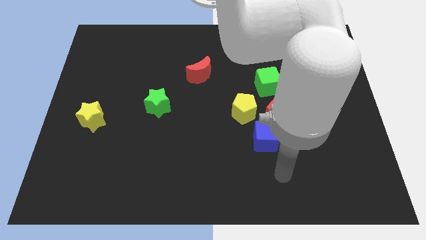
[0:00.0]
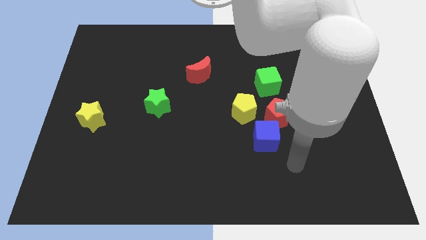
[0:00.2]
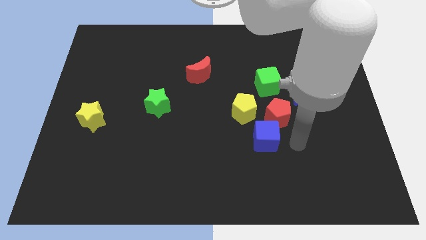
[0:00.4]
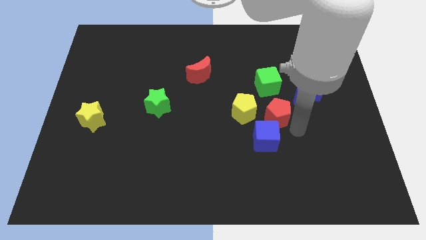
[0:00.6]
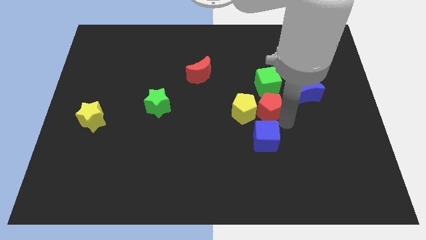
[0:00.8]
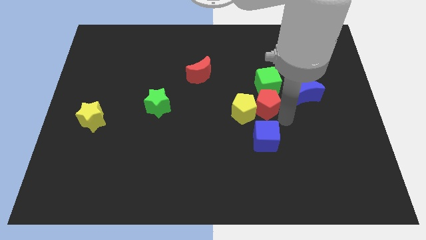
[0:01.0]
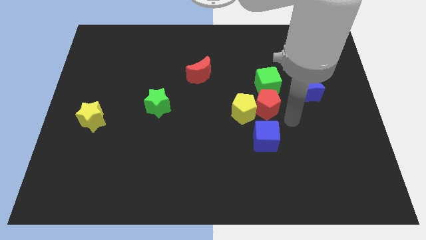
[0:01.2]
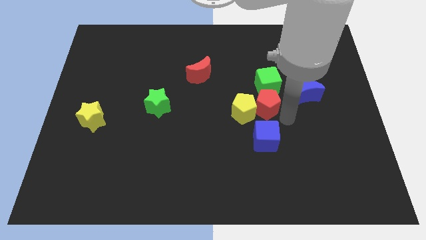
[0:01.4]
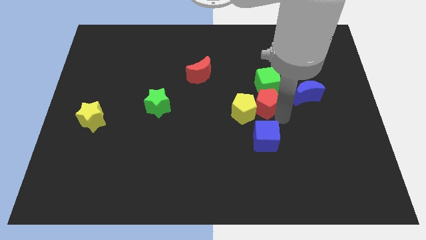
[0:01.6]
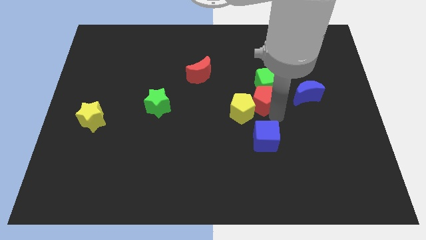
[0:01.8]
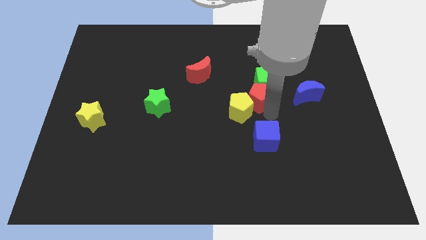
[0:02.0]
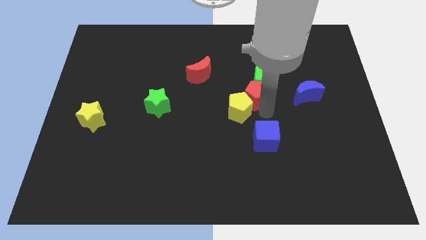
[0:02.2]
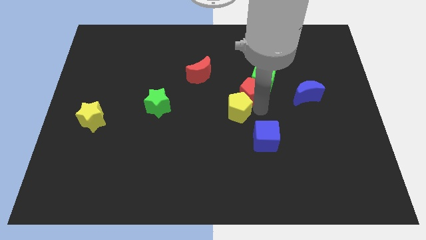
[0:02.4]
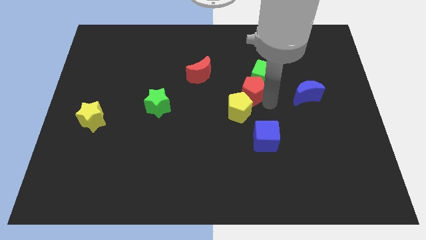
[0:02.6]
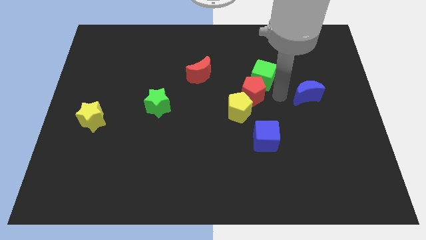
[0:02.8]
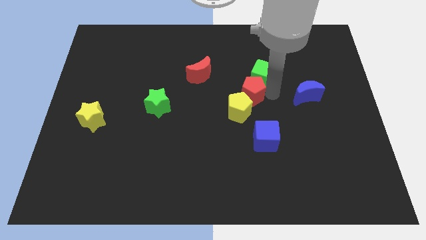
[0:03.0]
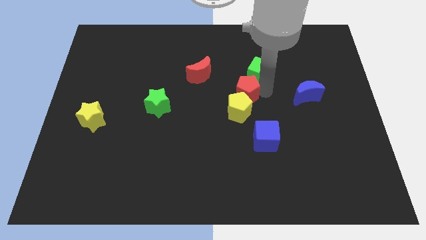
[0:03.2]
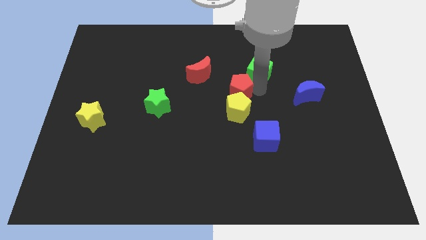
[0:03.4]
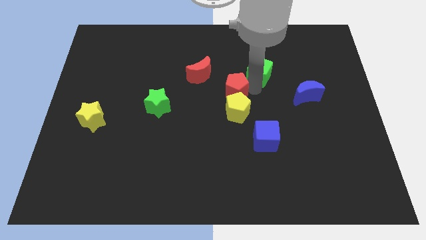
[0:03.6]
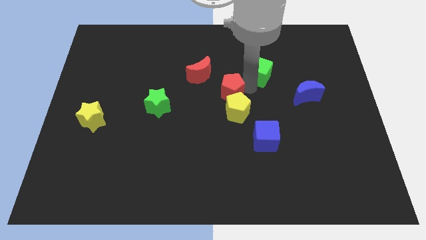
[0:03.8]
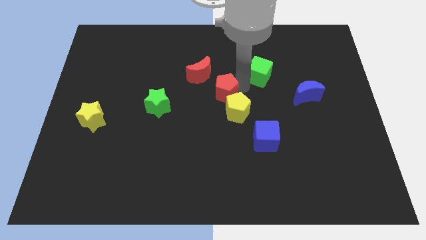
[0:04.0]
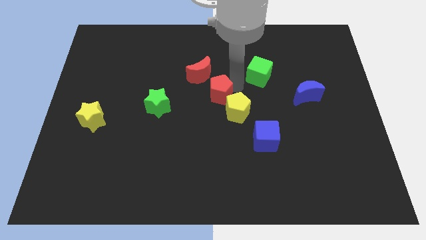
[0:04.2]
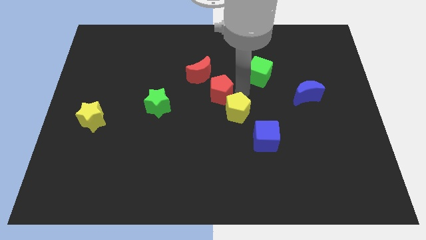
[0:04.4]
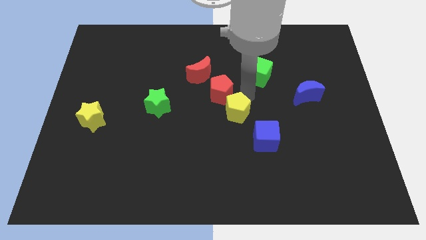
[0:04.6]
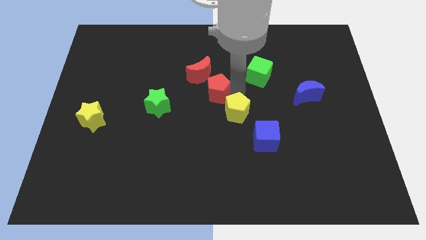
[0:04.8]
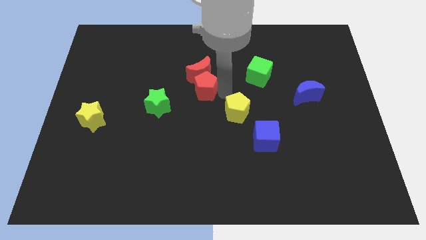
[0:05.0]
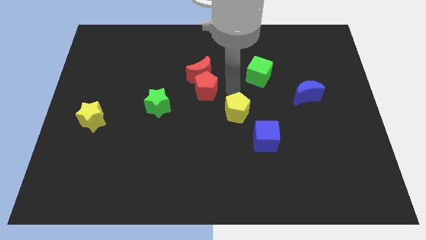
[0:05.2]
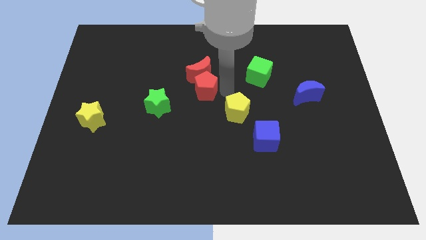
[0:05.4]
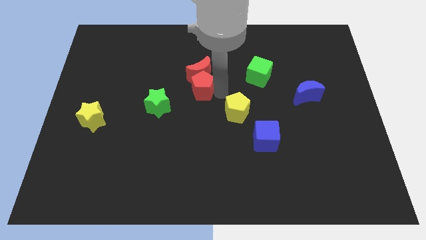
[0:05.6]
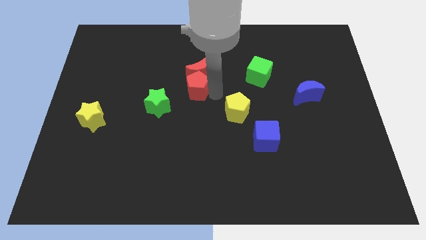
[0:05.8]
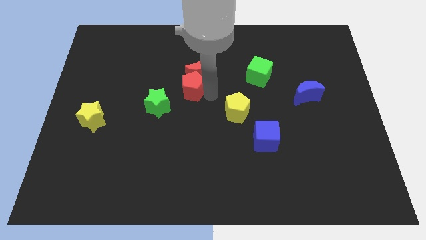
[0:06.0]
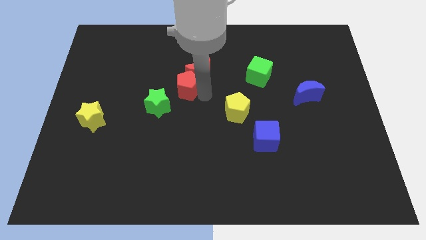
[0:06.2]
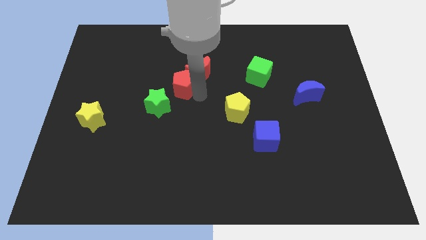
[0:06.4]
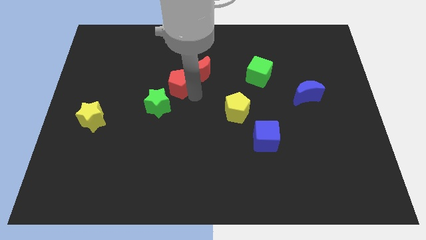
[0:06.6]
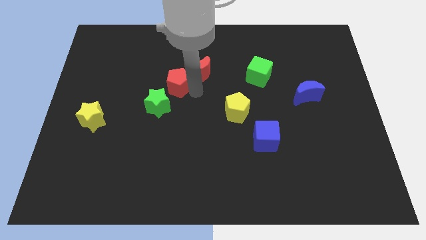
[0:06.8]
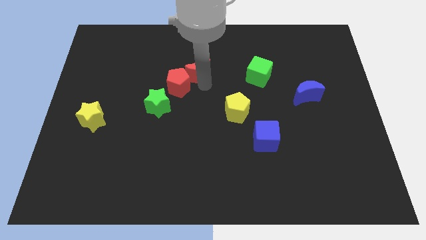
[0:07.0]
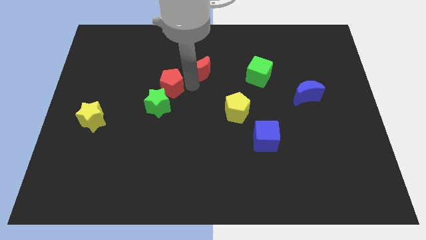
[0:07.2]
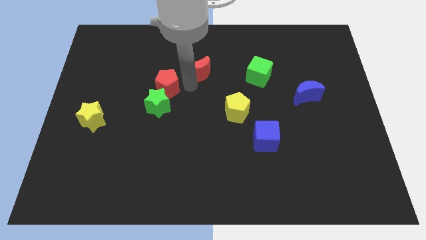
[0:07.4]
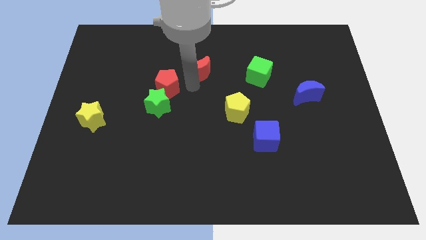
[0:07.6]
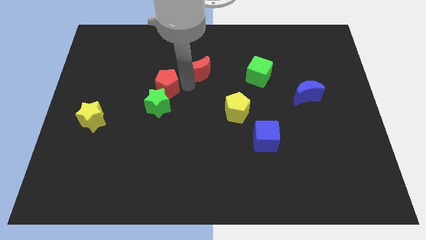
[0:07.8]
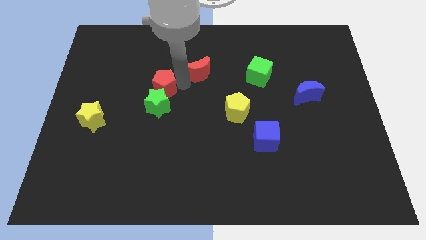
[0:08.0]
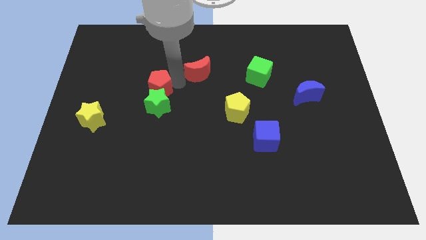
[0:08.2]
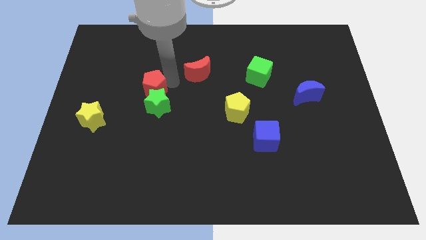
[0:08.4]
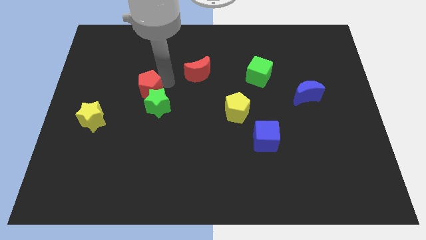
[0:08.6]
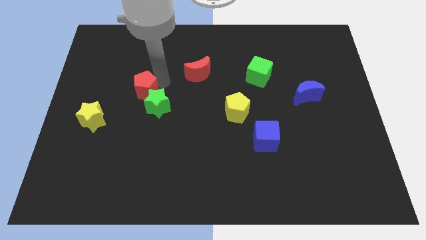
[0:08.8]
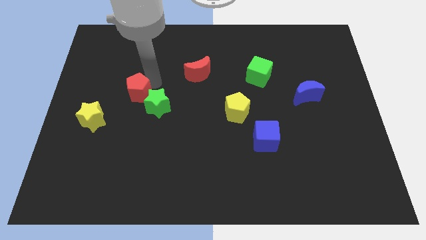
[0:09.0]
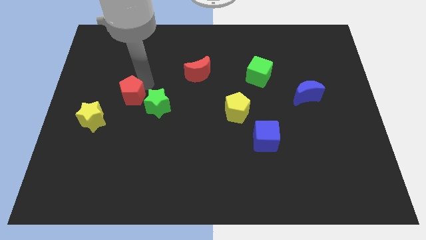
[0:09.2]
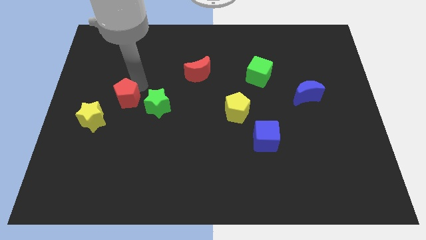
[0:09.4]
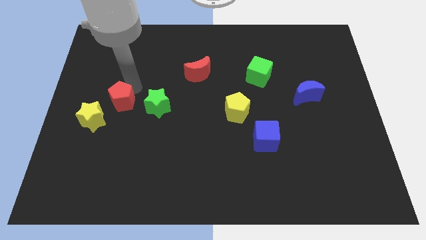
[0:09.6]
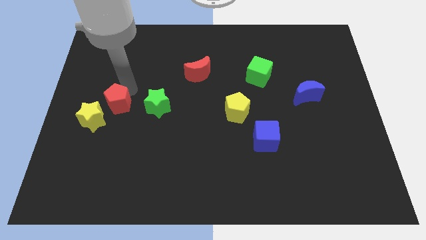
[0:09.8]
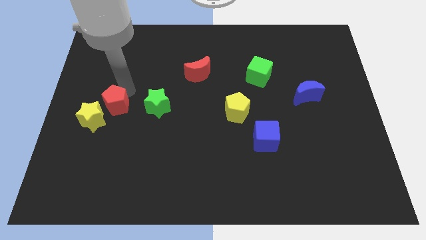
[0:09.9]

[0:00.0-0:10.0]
move the red pentagon close to the yellow star

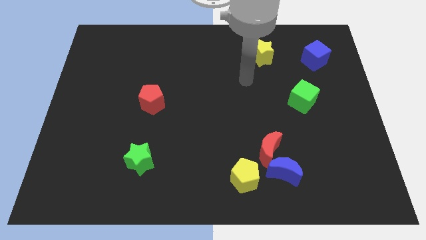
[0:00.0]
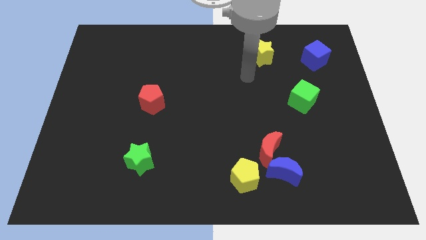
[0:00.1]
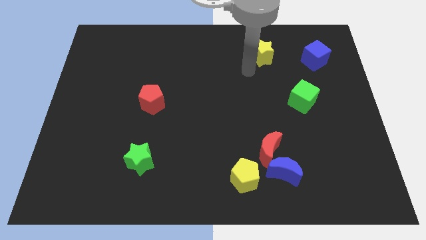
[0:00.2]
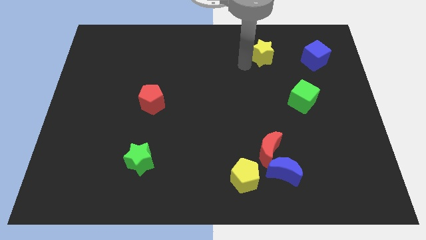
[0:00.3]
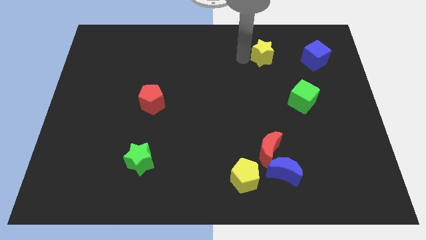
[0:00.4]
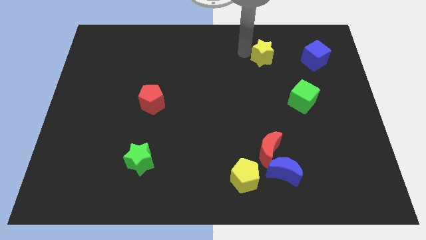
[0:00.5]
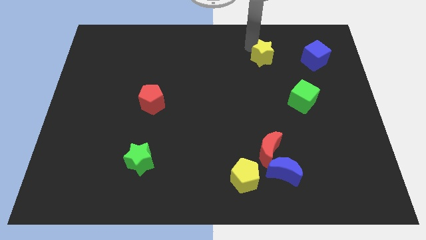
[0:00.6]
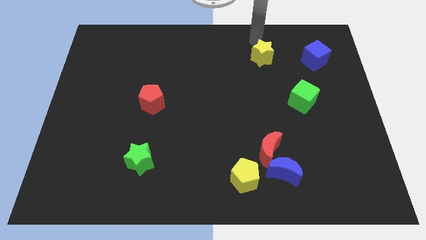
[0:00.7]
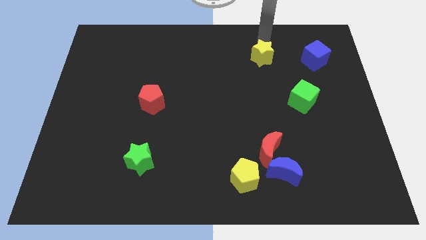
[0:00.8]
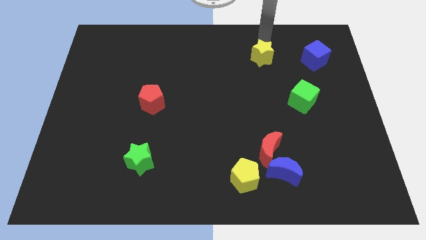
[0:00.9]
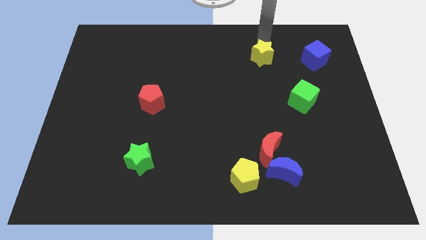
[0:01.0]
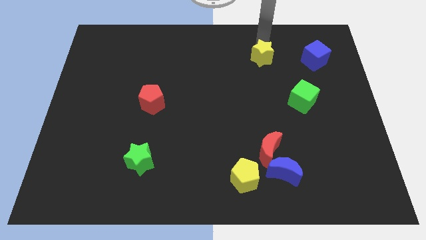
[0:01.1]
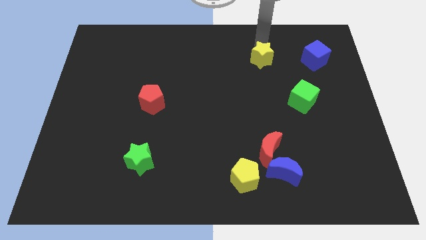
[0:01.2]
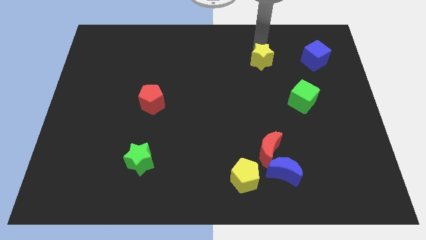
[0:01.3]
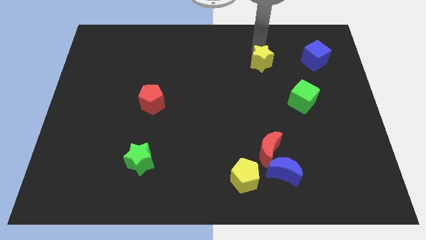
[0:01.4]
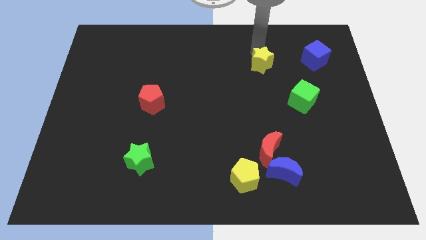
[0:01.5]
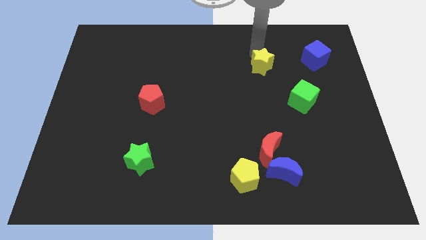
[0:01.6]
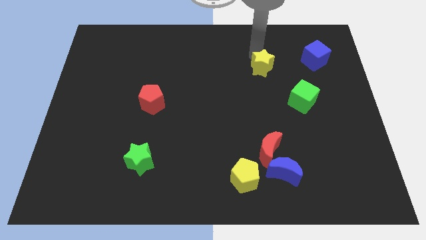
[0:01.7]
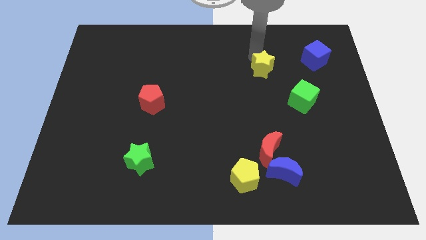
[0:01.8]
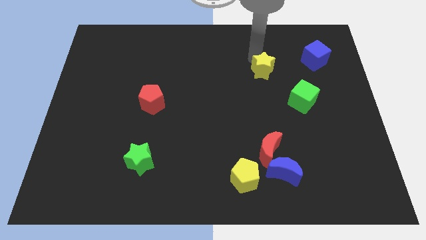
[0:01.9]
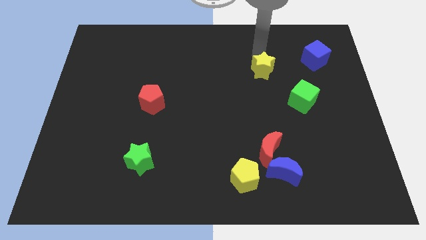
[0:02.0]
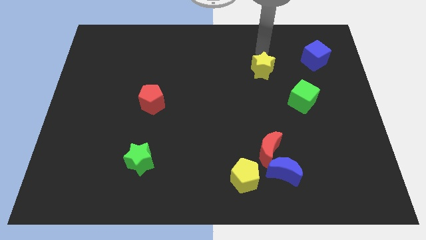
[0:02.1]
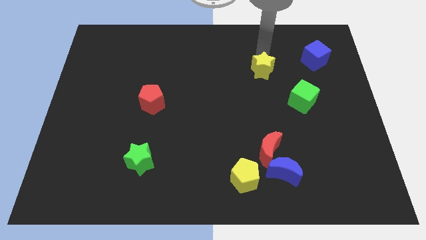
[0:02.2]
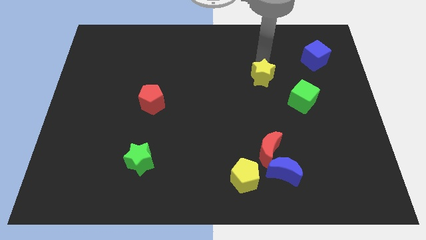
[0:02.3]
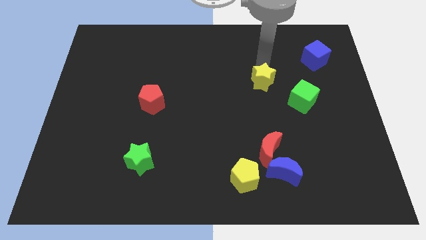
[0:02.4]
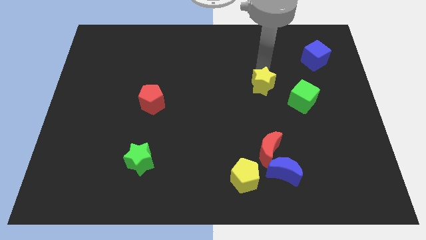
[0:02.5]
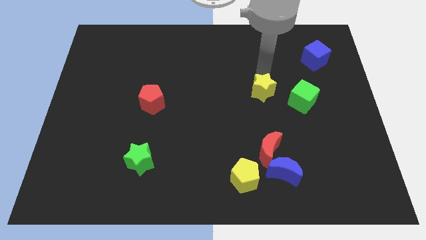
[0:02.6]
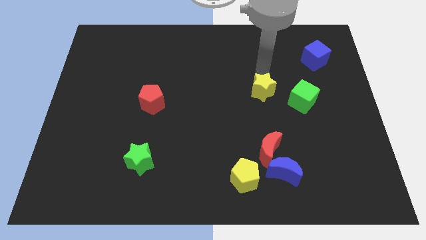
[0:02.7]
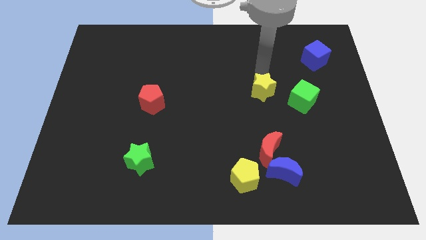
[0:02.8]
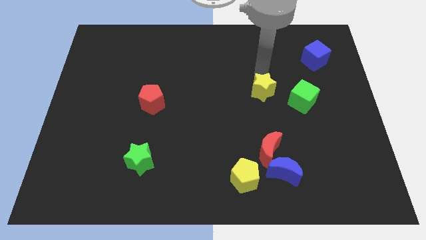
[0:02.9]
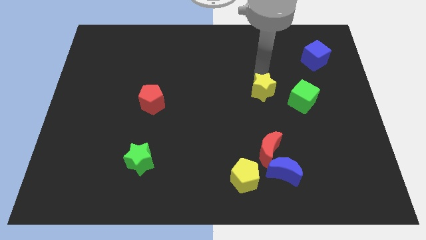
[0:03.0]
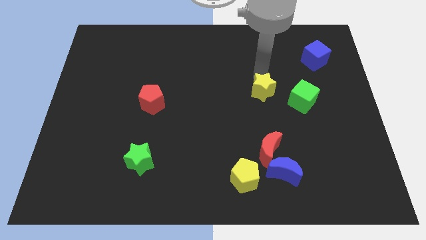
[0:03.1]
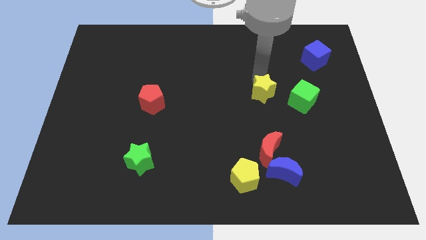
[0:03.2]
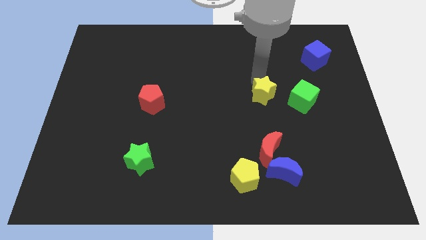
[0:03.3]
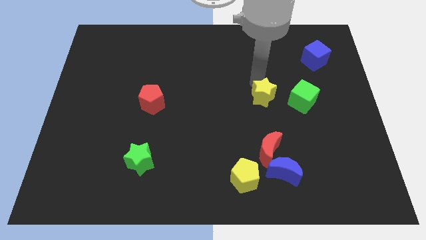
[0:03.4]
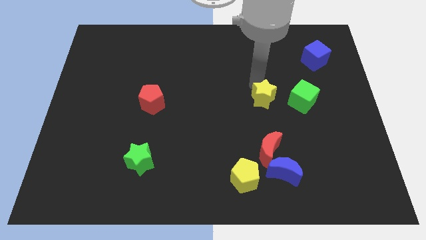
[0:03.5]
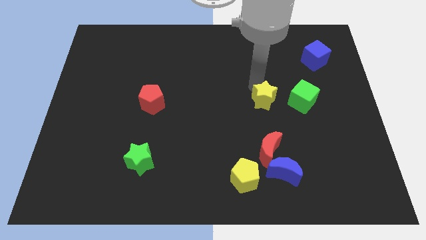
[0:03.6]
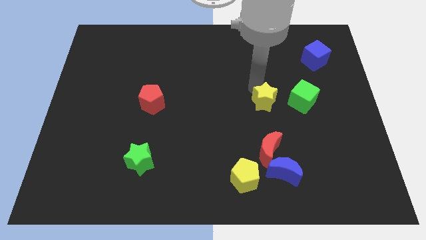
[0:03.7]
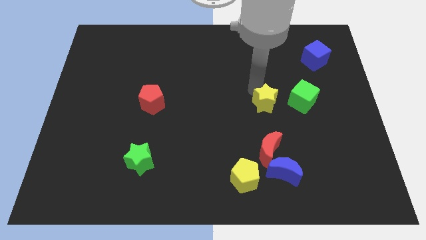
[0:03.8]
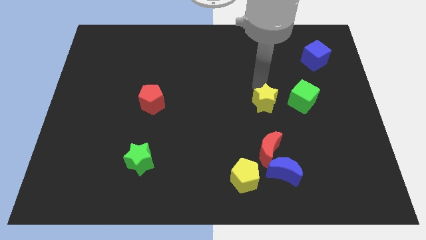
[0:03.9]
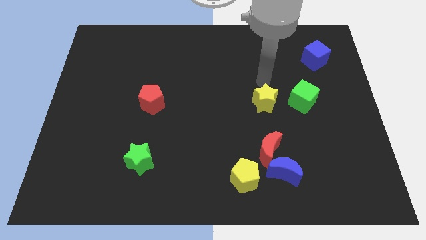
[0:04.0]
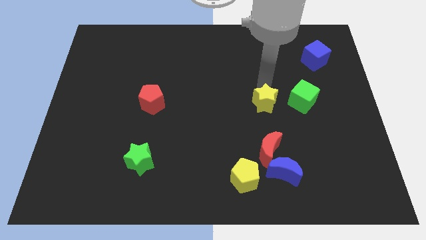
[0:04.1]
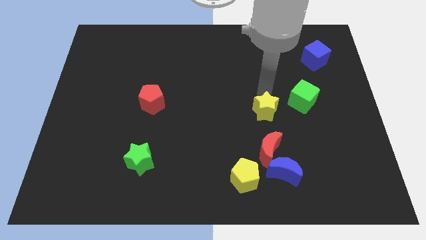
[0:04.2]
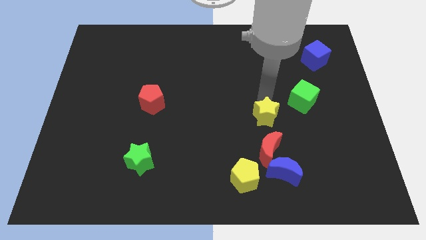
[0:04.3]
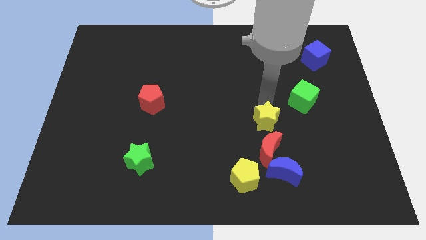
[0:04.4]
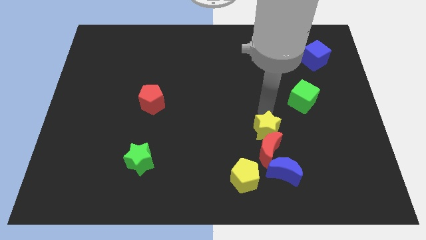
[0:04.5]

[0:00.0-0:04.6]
push the yellow star close to the red moon
